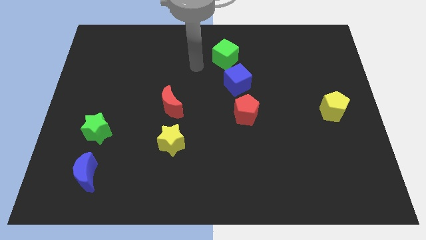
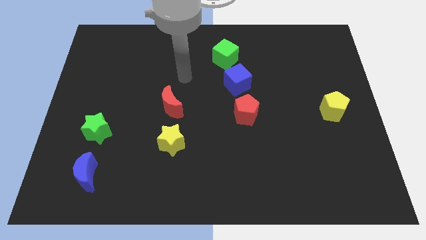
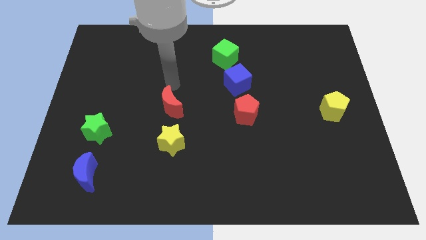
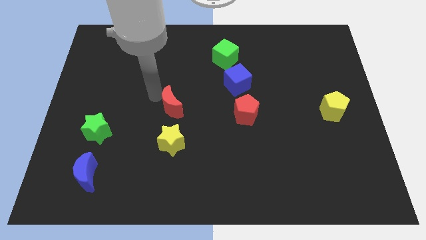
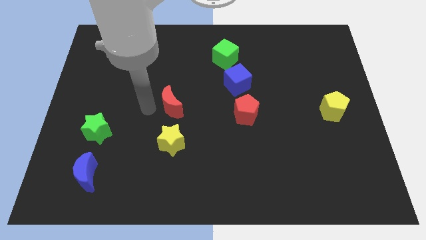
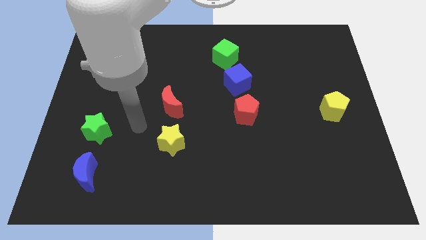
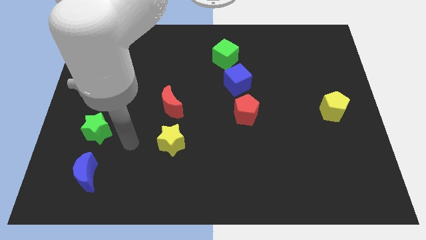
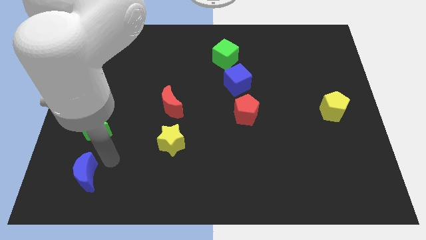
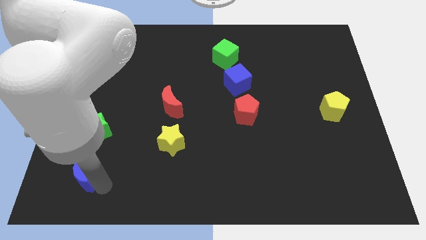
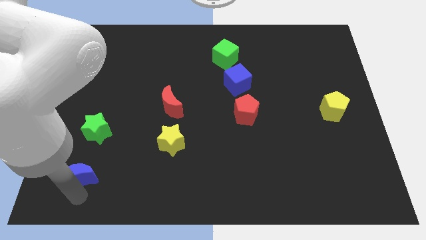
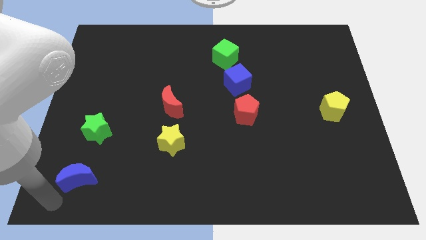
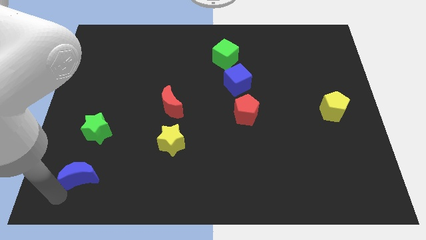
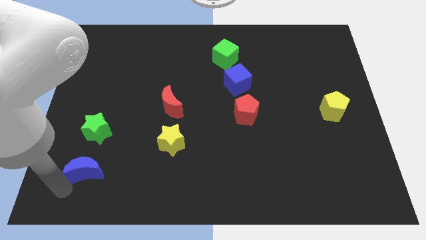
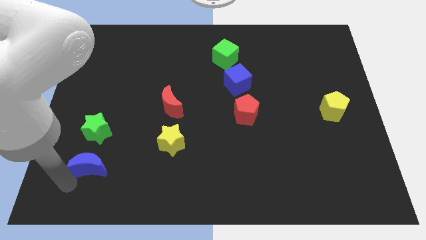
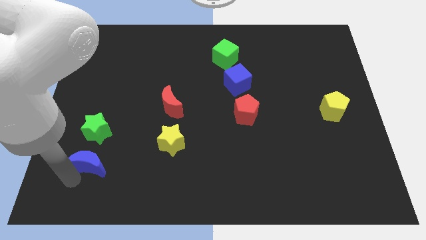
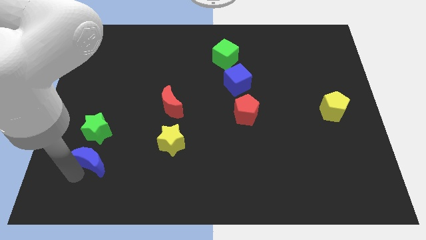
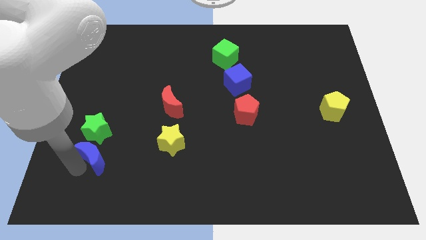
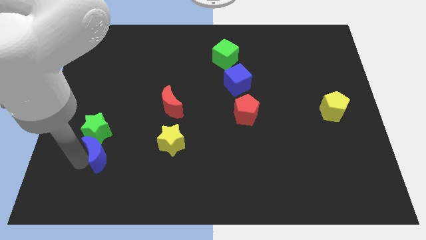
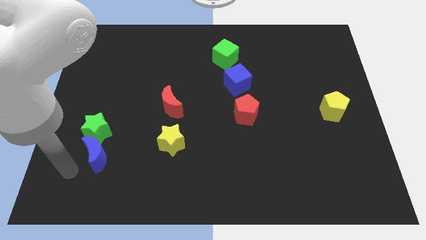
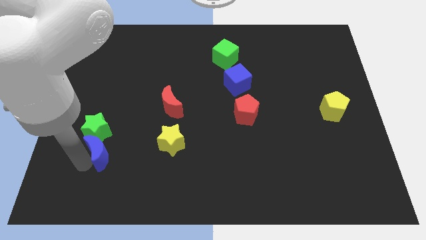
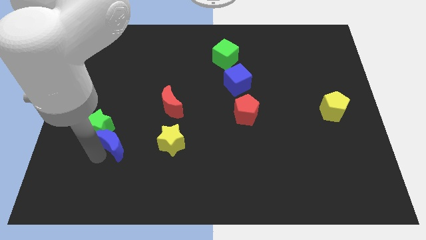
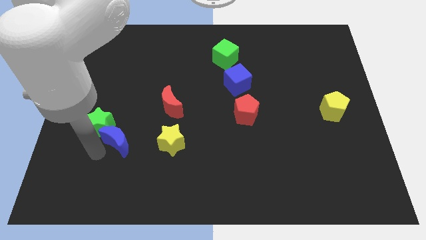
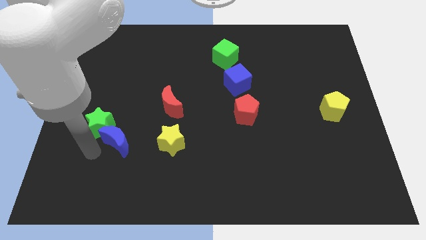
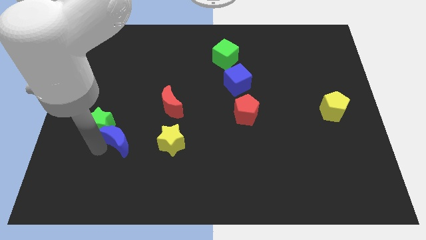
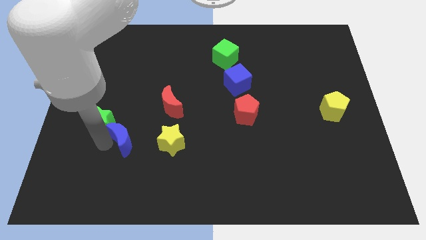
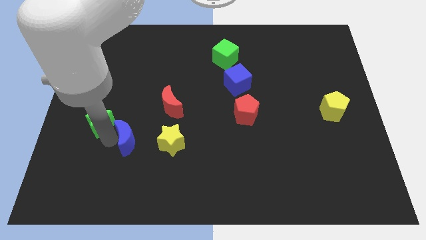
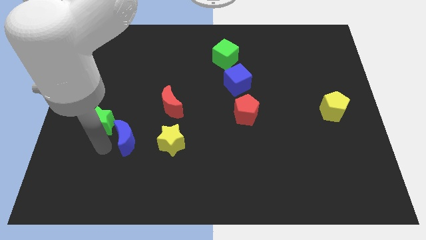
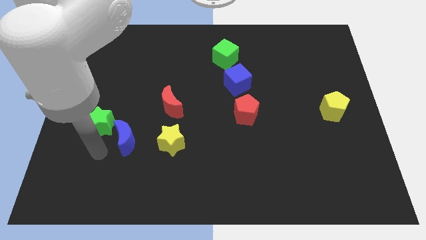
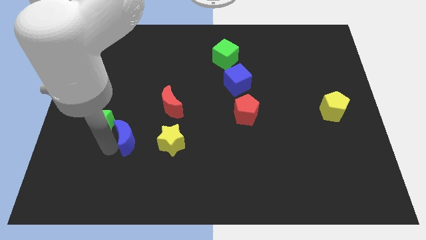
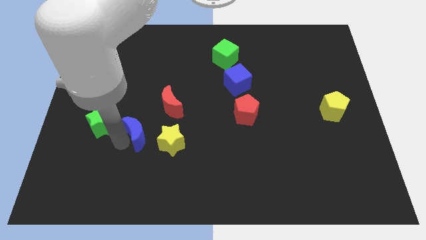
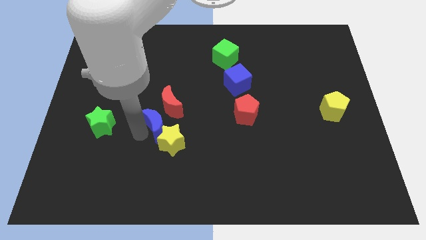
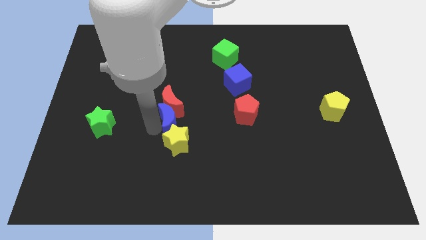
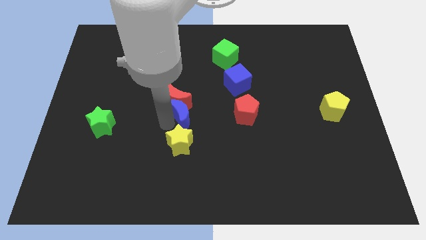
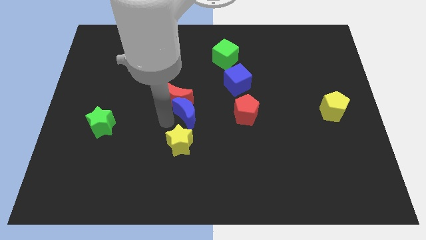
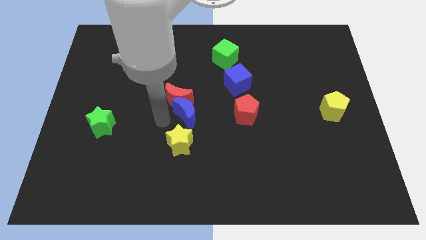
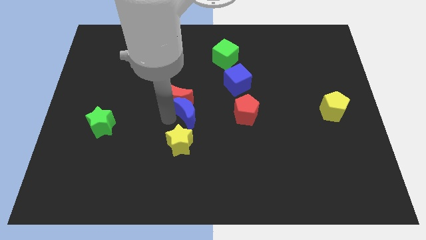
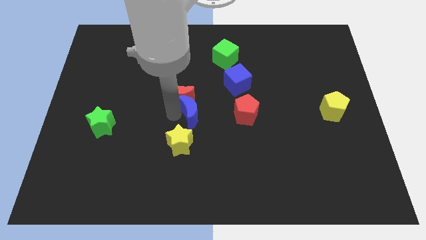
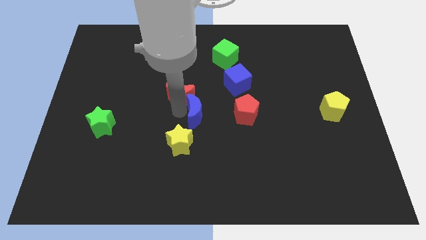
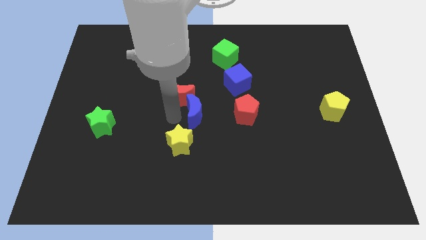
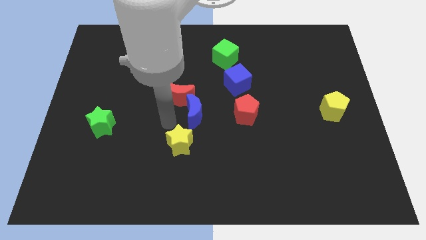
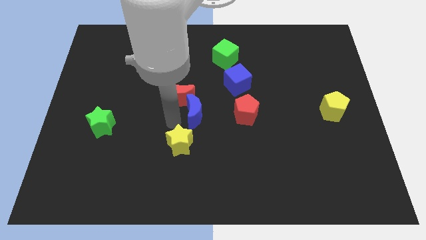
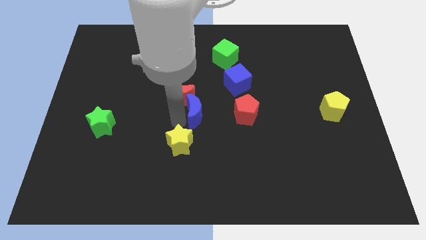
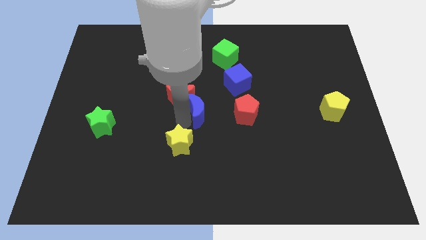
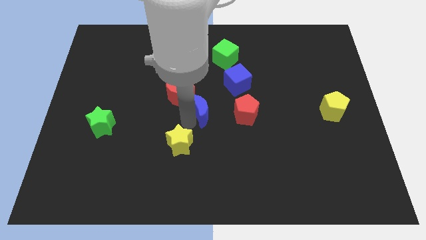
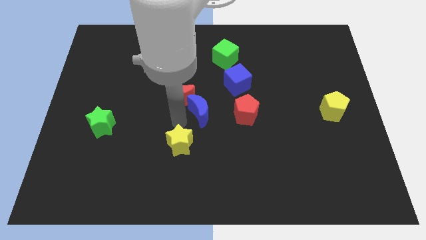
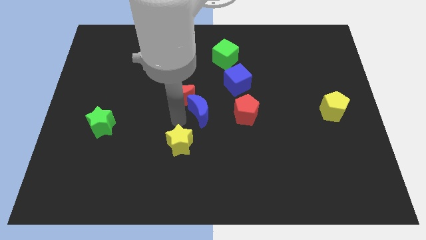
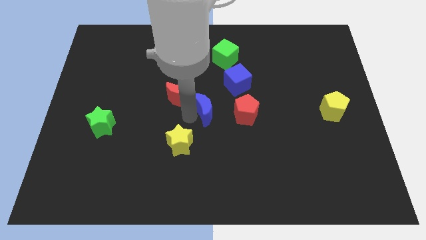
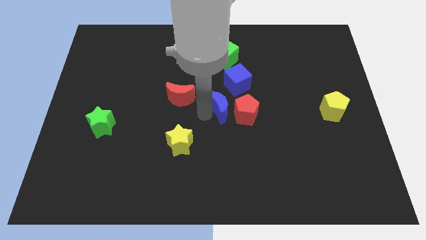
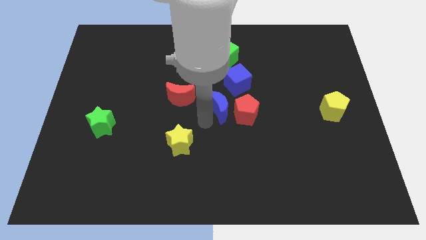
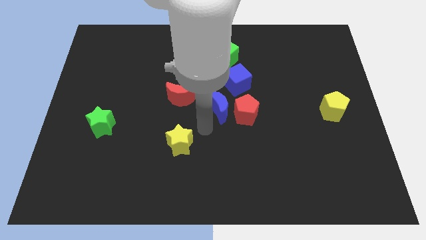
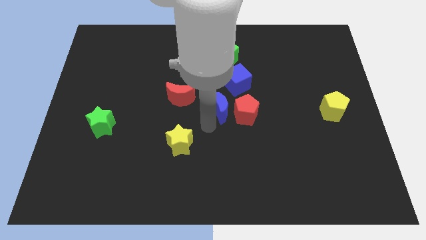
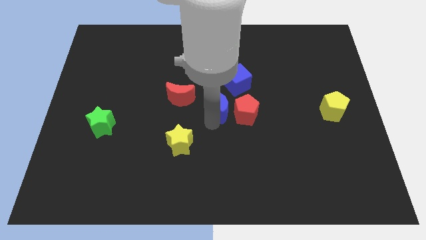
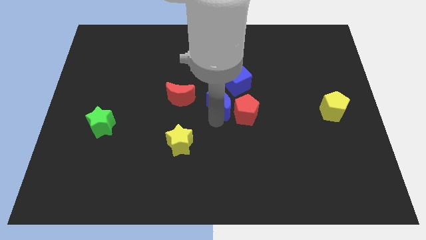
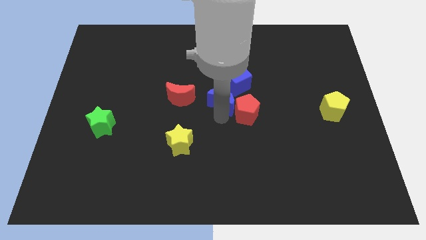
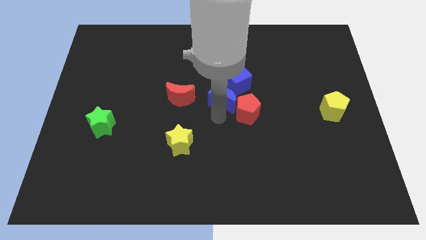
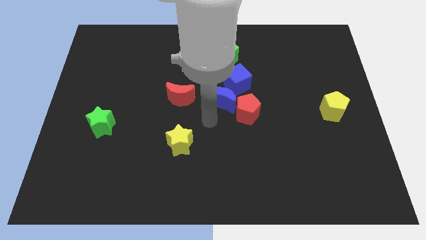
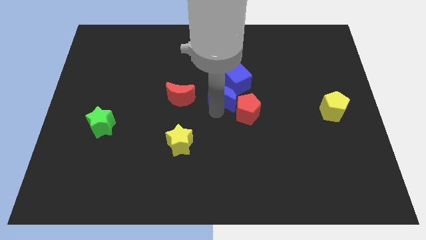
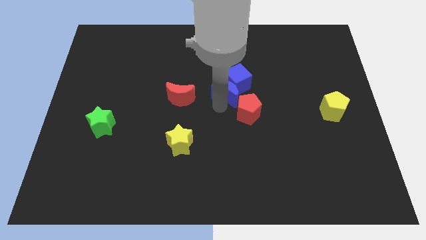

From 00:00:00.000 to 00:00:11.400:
push the blue moon next to the blue cube
